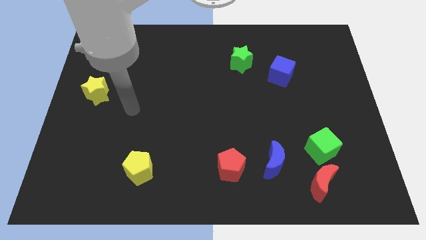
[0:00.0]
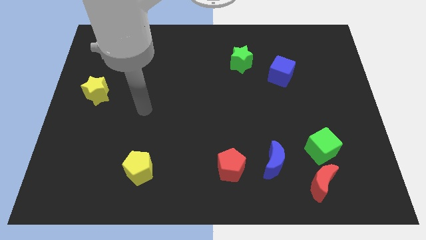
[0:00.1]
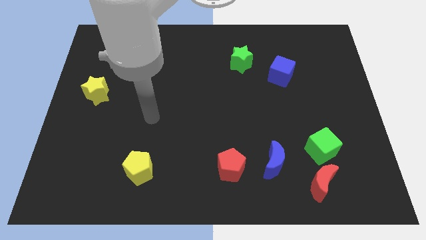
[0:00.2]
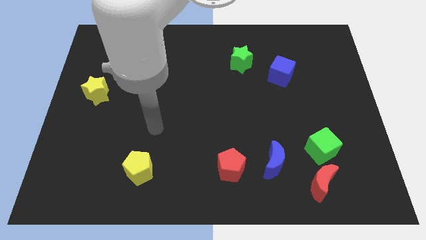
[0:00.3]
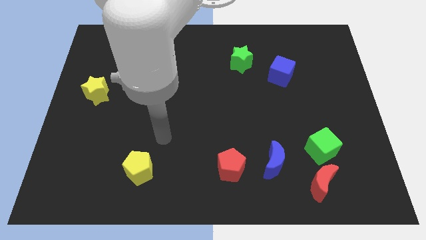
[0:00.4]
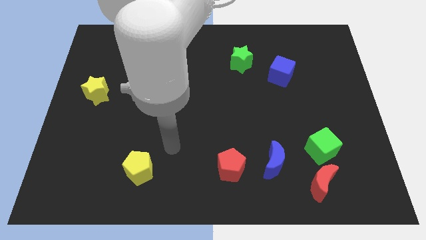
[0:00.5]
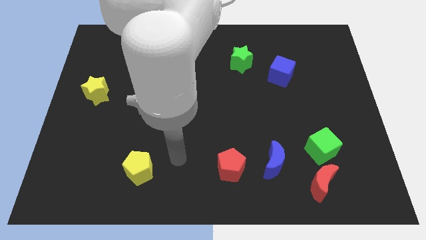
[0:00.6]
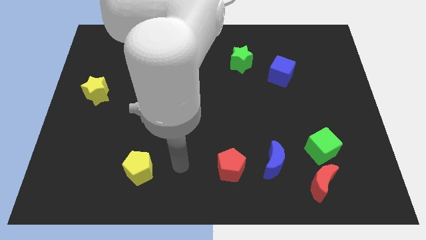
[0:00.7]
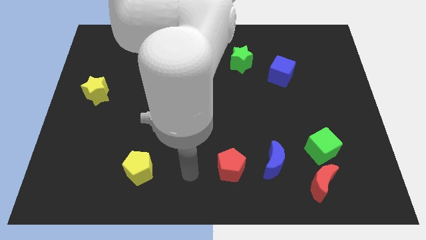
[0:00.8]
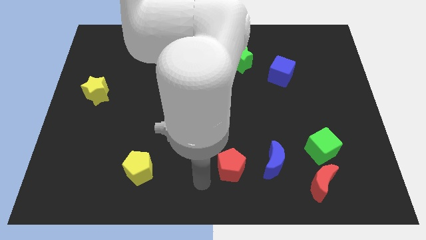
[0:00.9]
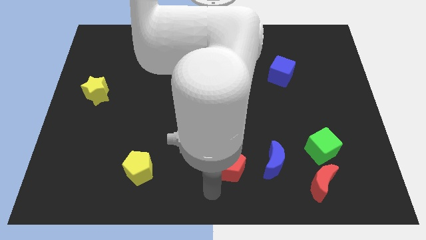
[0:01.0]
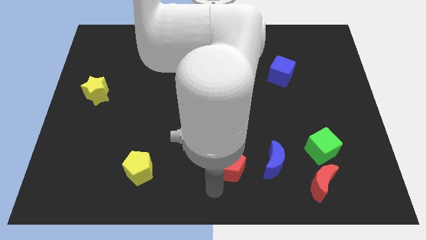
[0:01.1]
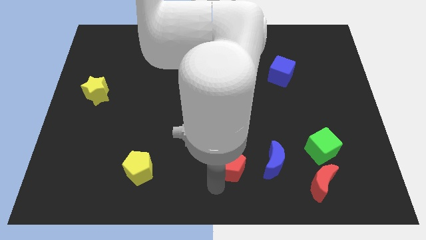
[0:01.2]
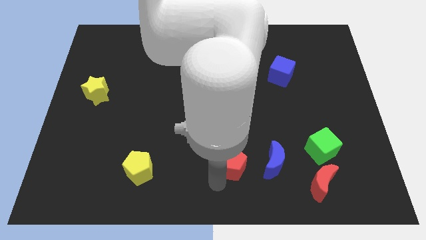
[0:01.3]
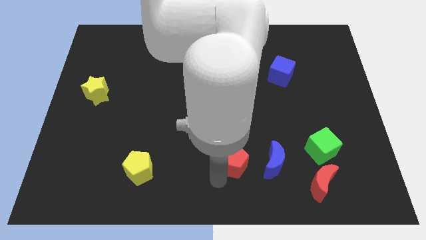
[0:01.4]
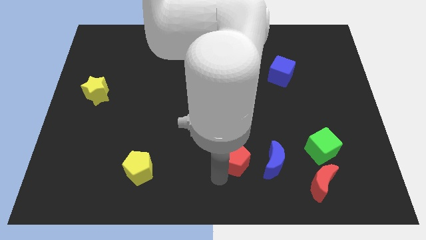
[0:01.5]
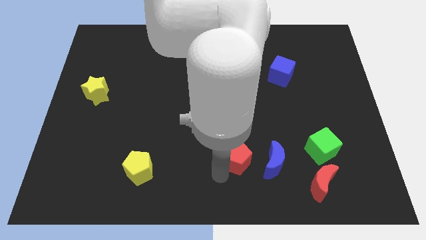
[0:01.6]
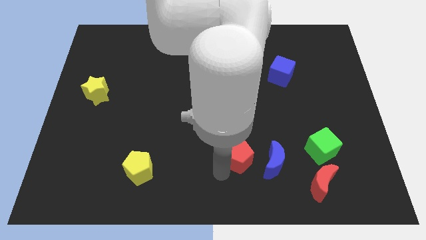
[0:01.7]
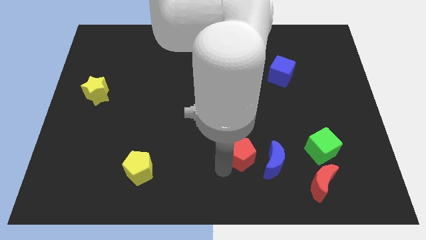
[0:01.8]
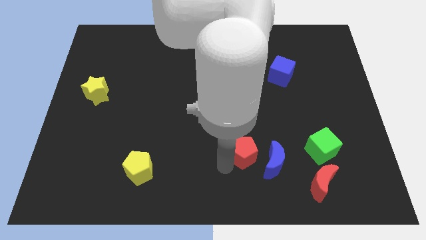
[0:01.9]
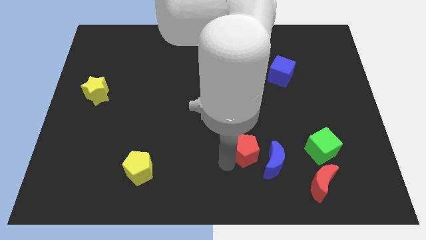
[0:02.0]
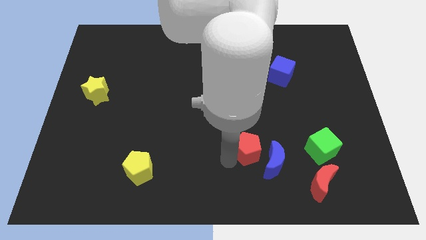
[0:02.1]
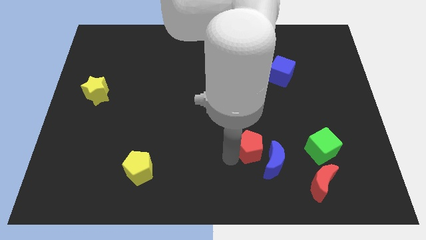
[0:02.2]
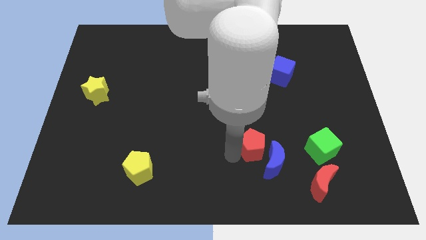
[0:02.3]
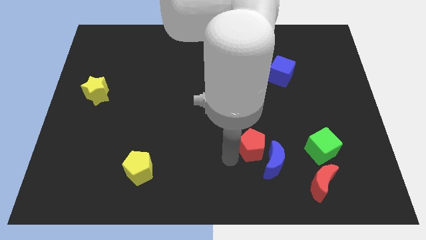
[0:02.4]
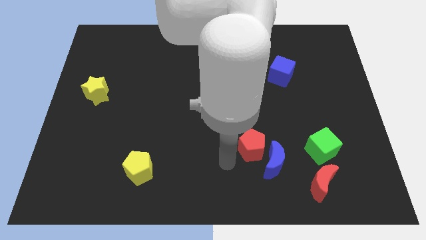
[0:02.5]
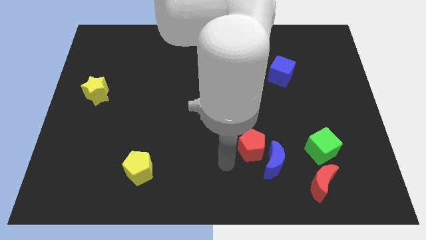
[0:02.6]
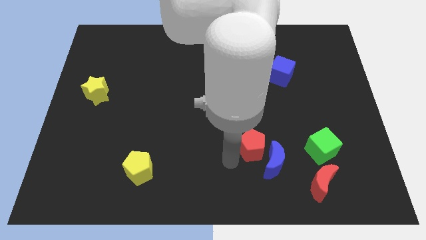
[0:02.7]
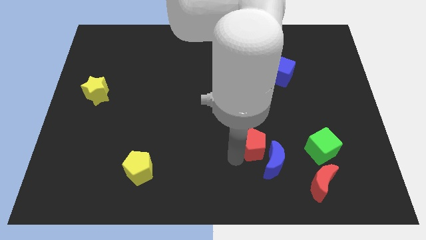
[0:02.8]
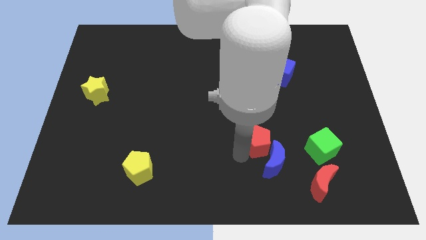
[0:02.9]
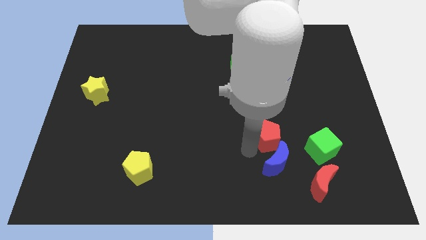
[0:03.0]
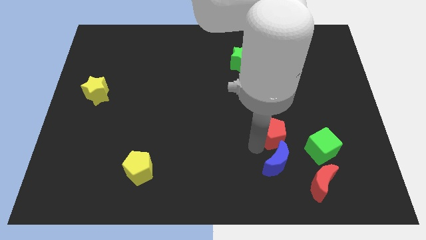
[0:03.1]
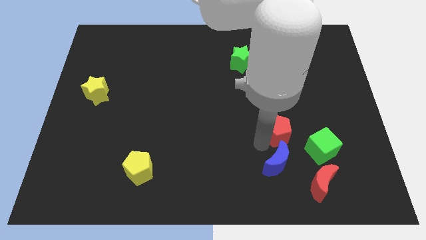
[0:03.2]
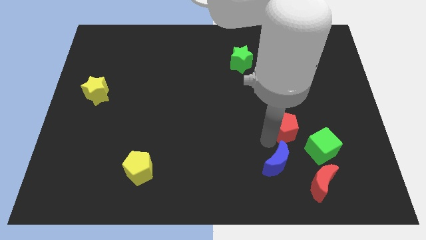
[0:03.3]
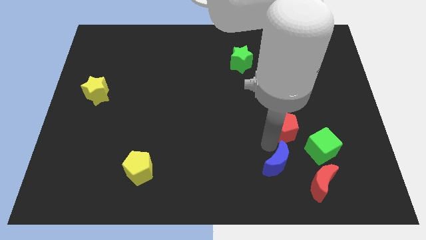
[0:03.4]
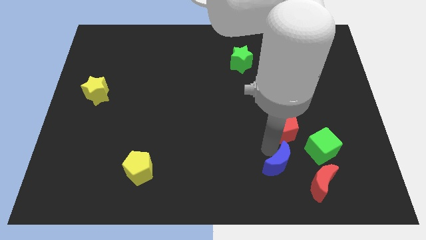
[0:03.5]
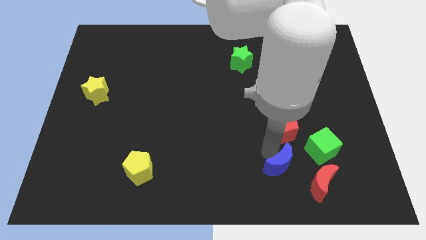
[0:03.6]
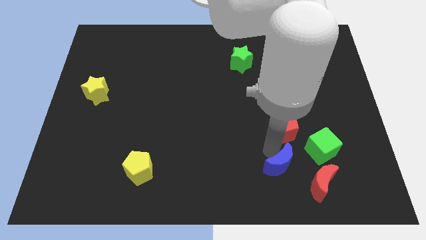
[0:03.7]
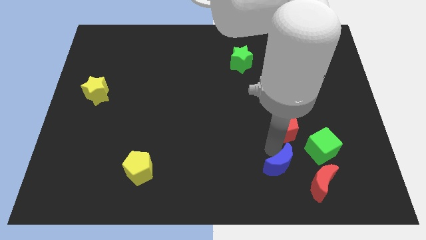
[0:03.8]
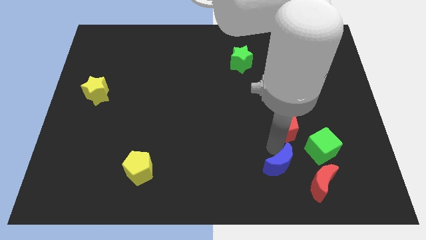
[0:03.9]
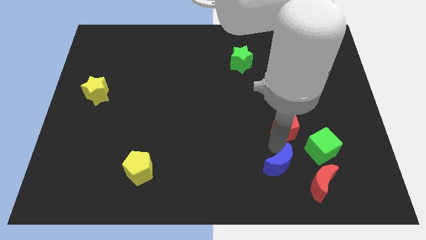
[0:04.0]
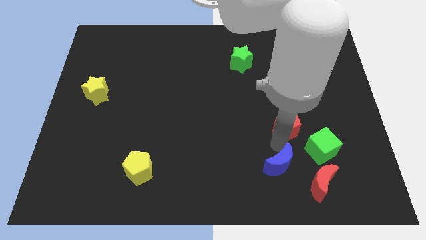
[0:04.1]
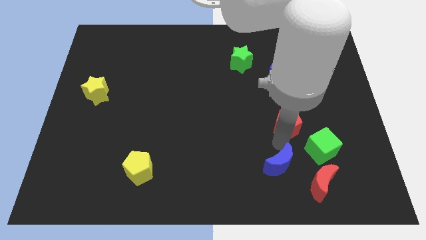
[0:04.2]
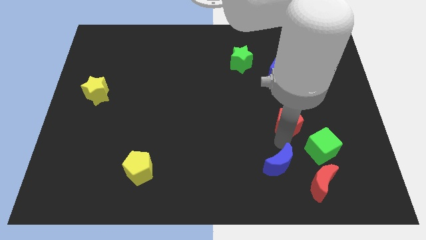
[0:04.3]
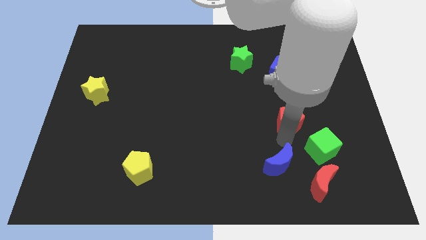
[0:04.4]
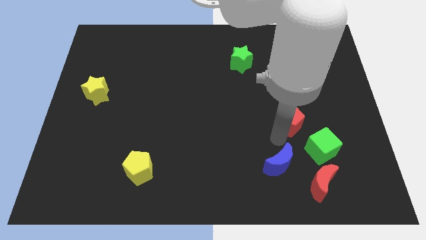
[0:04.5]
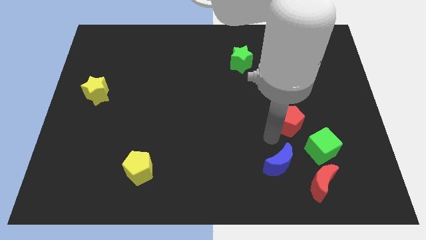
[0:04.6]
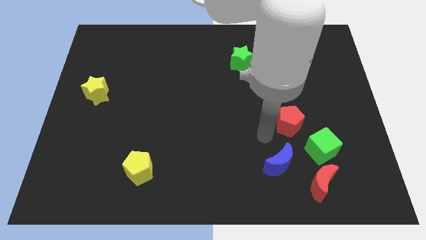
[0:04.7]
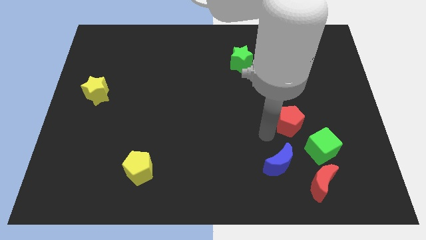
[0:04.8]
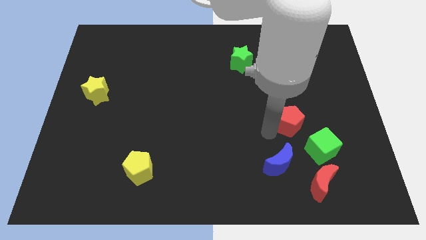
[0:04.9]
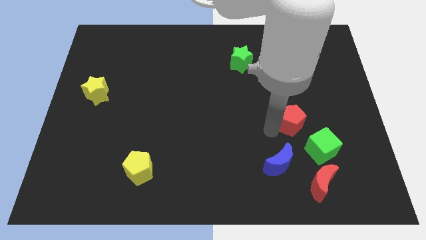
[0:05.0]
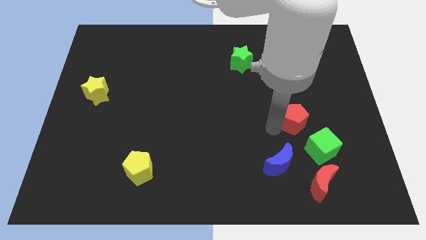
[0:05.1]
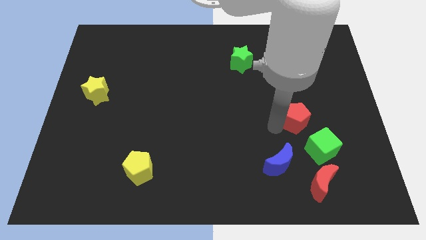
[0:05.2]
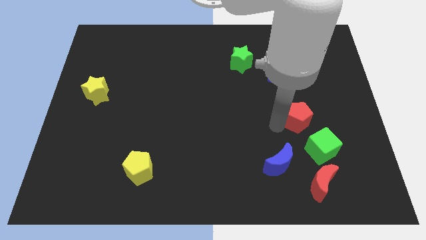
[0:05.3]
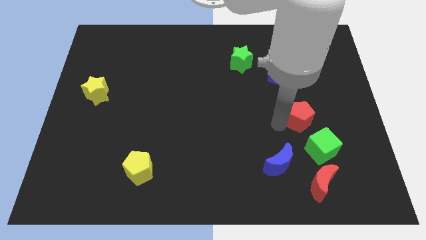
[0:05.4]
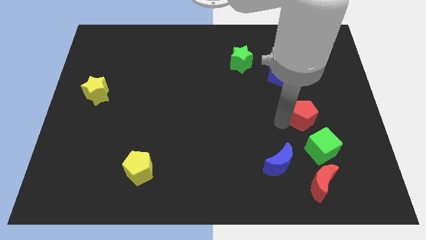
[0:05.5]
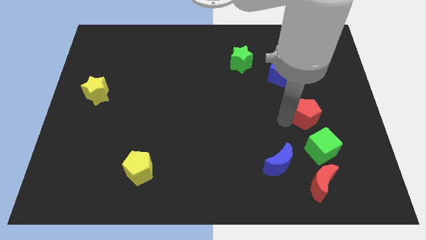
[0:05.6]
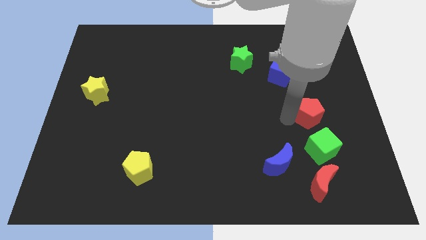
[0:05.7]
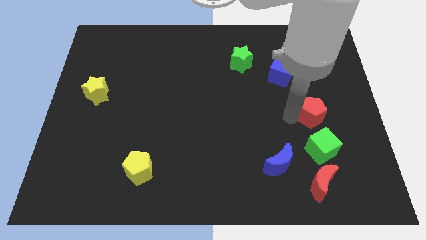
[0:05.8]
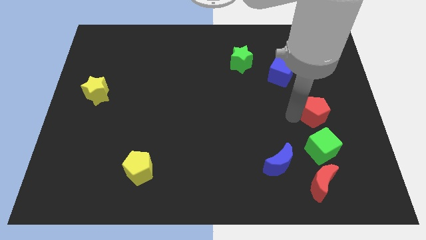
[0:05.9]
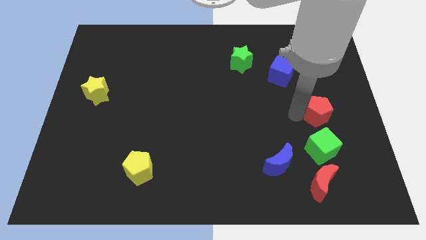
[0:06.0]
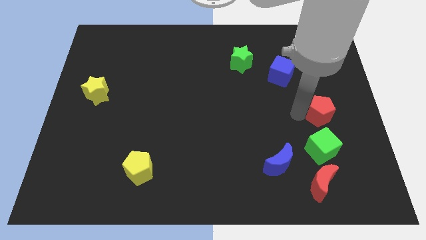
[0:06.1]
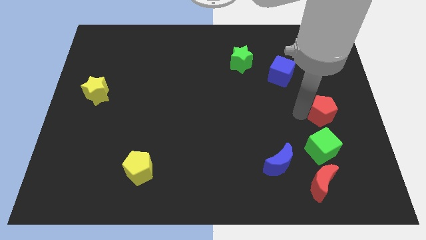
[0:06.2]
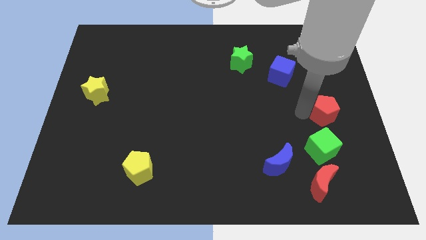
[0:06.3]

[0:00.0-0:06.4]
move the red pentagon to the right side of the board

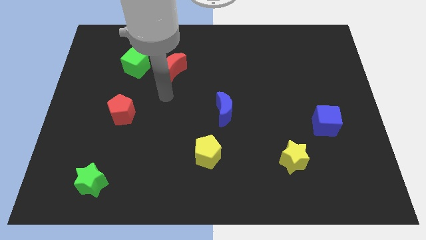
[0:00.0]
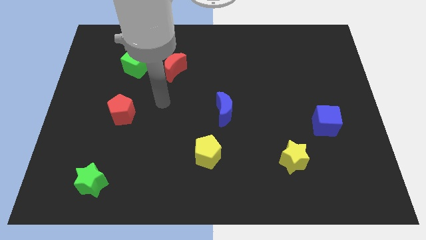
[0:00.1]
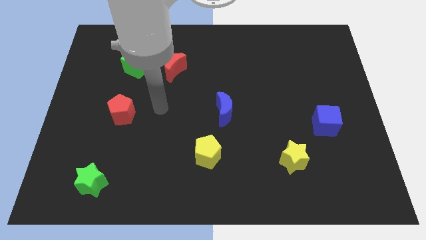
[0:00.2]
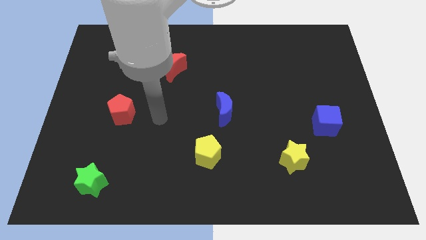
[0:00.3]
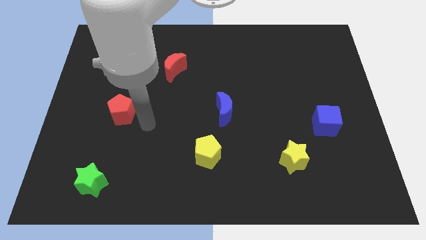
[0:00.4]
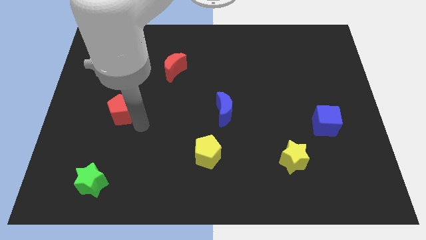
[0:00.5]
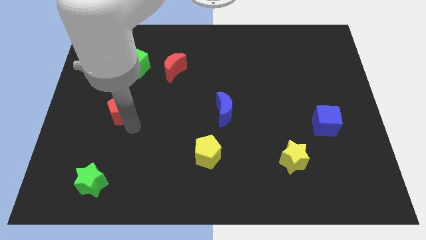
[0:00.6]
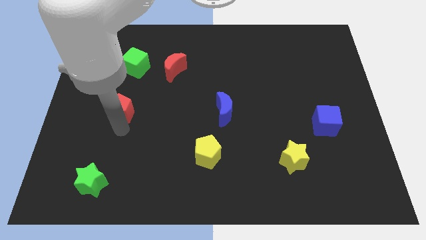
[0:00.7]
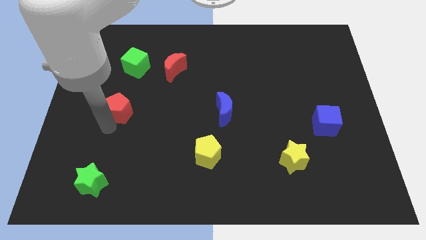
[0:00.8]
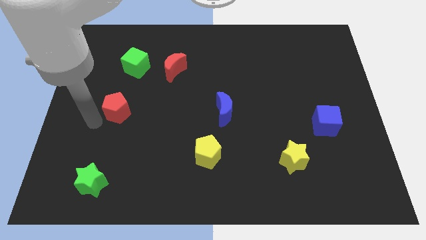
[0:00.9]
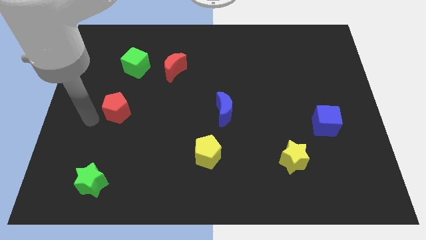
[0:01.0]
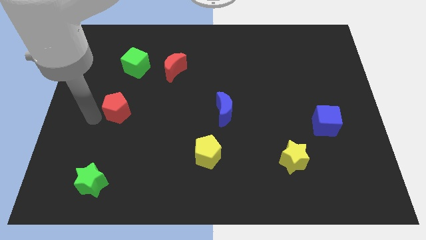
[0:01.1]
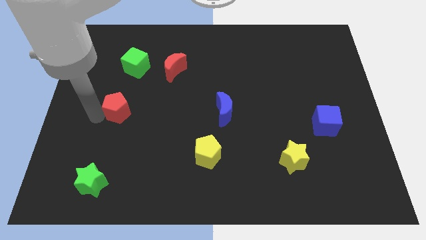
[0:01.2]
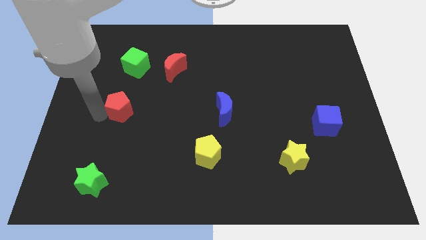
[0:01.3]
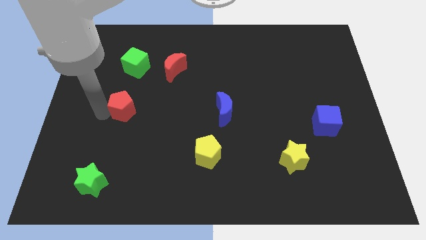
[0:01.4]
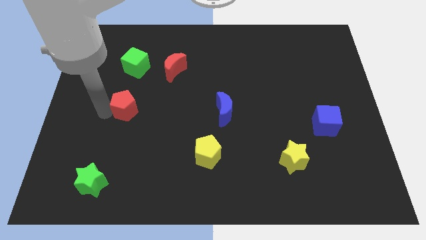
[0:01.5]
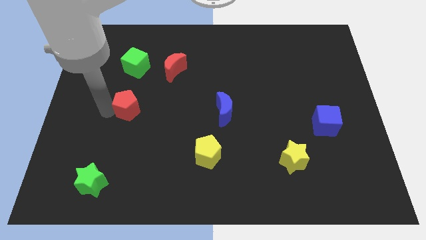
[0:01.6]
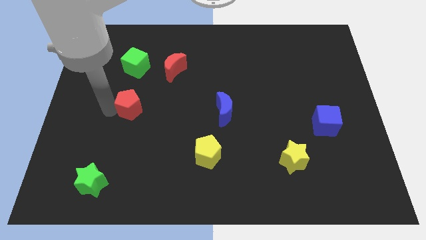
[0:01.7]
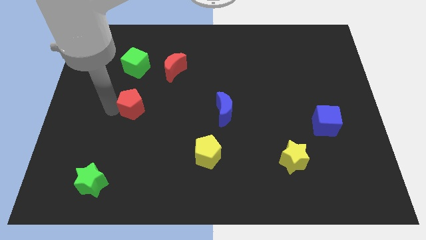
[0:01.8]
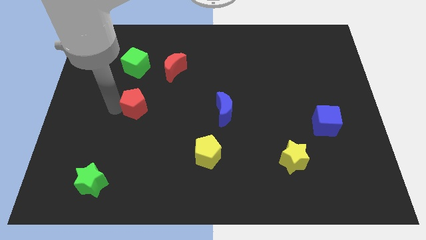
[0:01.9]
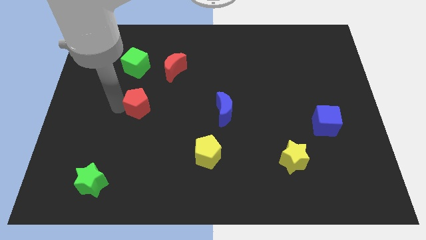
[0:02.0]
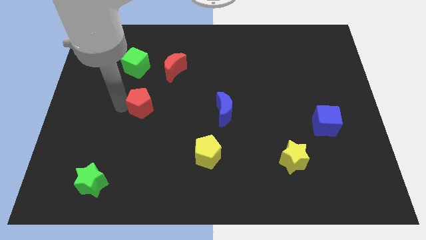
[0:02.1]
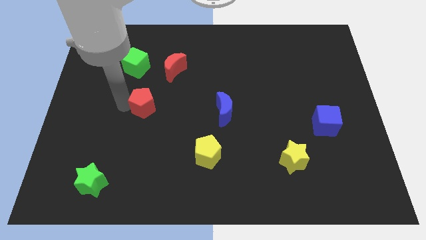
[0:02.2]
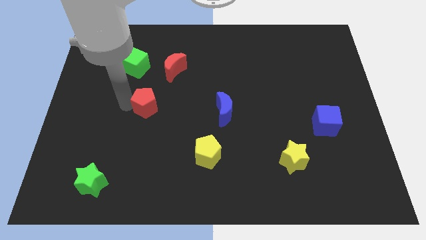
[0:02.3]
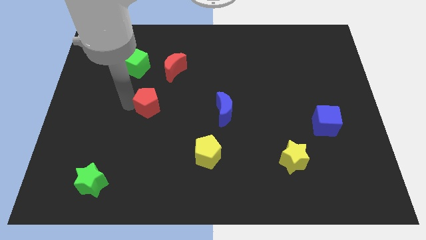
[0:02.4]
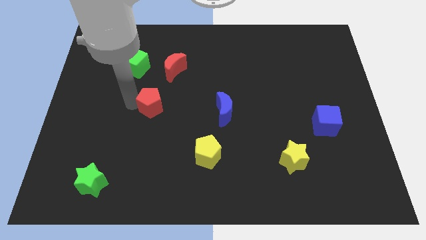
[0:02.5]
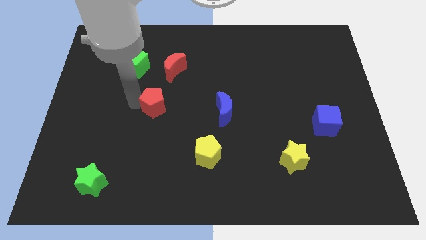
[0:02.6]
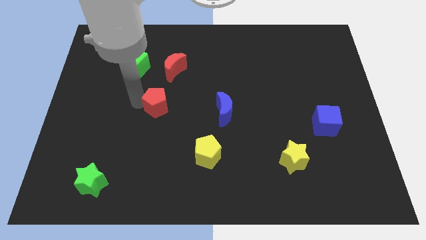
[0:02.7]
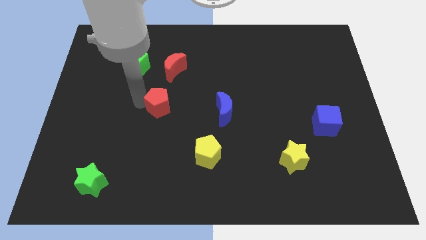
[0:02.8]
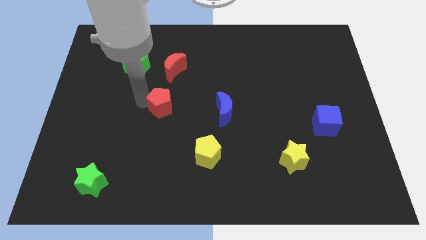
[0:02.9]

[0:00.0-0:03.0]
move the red pentagon to the center
